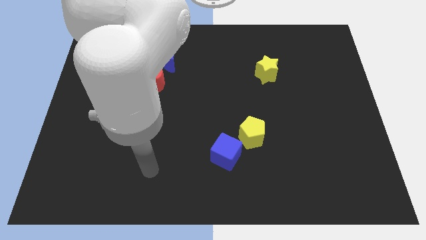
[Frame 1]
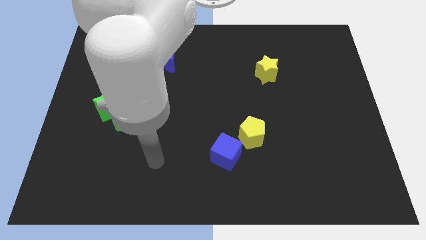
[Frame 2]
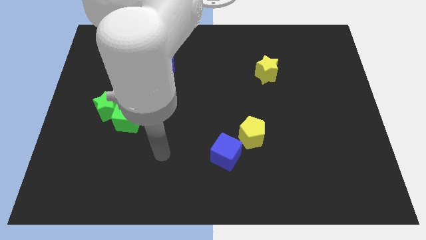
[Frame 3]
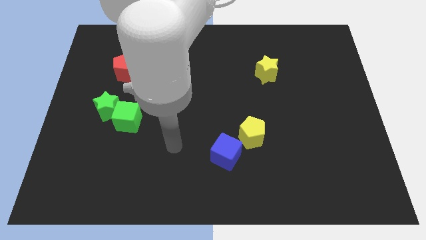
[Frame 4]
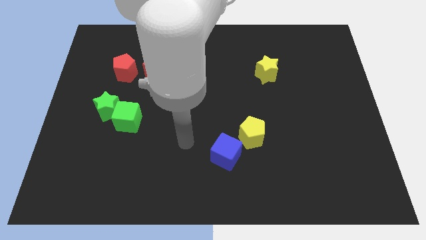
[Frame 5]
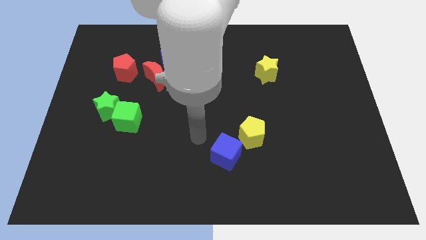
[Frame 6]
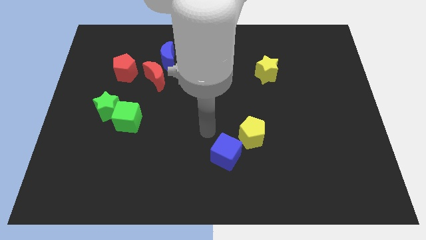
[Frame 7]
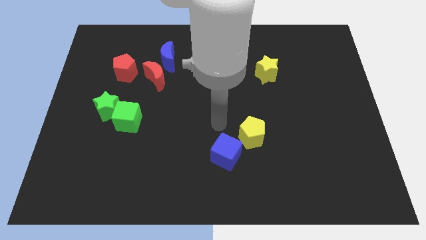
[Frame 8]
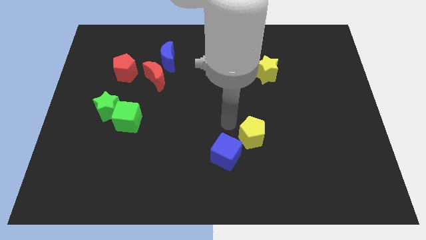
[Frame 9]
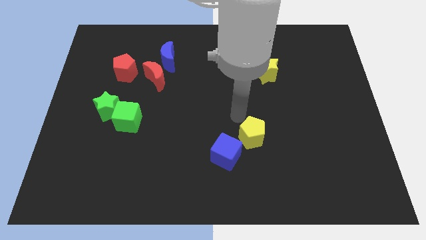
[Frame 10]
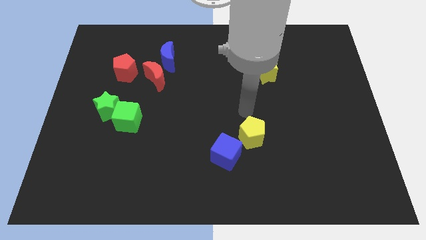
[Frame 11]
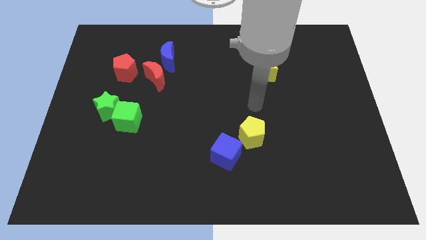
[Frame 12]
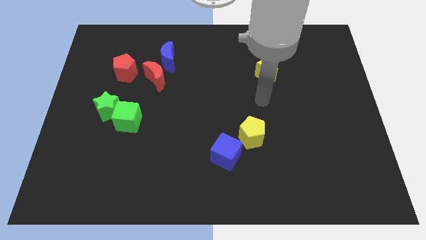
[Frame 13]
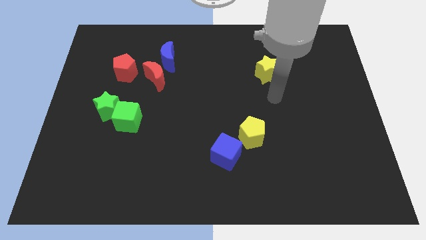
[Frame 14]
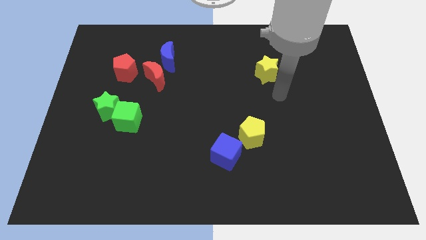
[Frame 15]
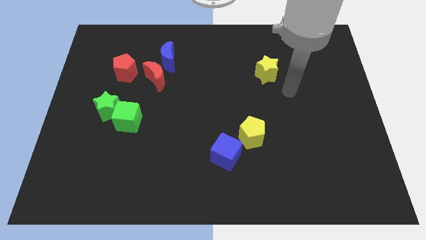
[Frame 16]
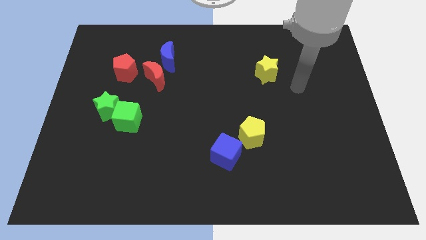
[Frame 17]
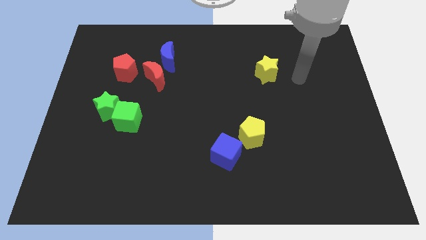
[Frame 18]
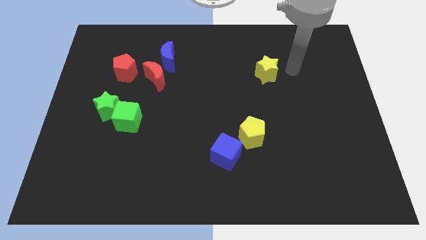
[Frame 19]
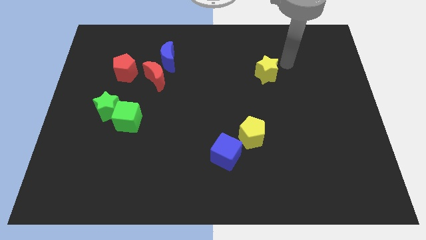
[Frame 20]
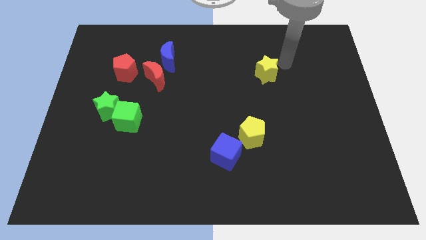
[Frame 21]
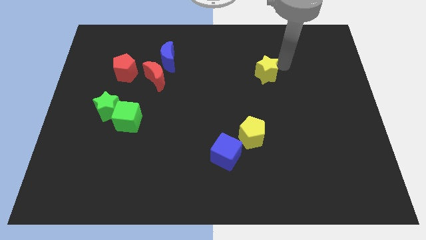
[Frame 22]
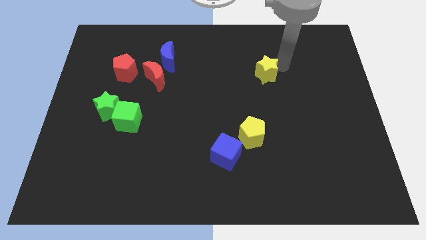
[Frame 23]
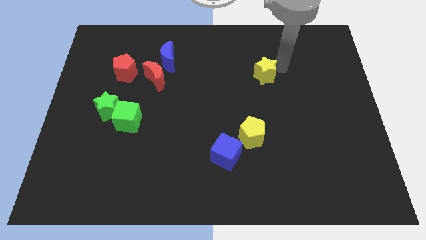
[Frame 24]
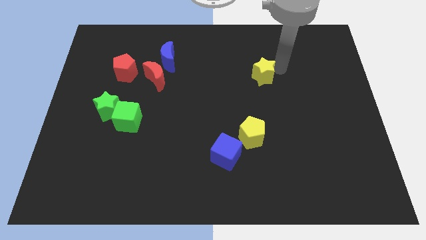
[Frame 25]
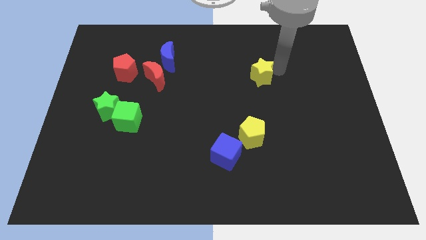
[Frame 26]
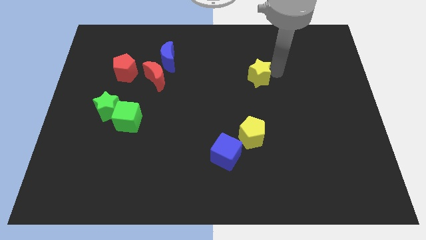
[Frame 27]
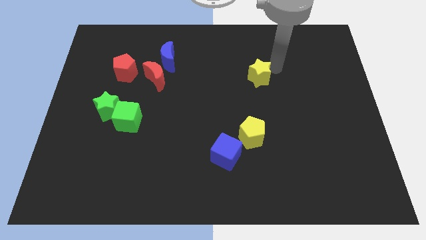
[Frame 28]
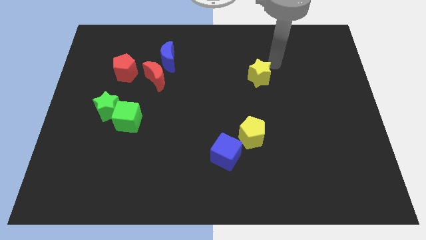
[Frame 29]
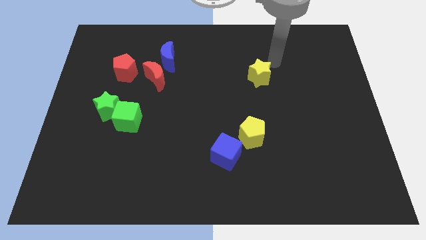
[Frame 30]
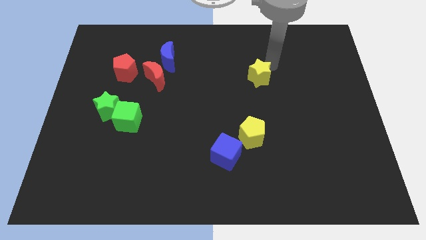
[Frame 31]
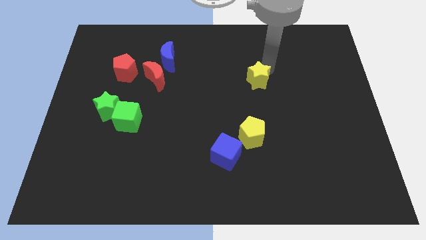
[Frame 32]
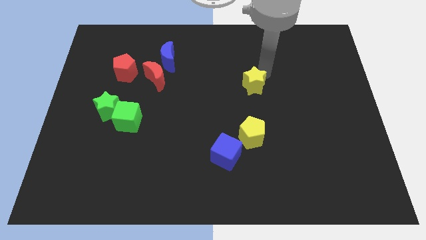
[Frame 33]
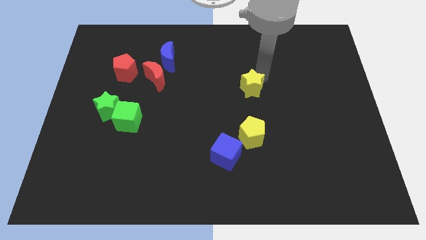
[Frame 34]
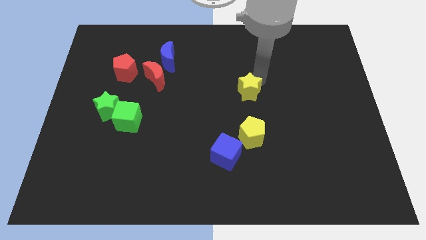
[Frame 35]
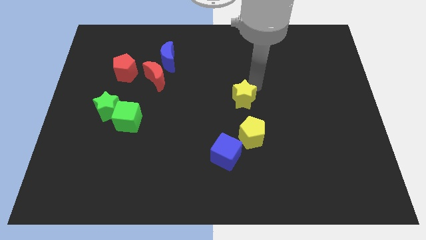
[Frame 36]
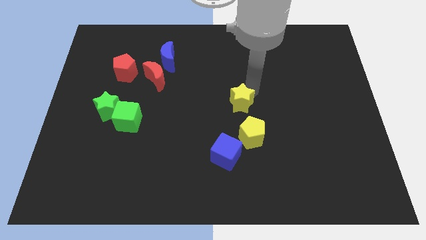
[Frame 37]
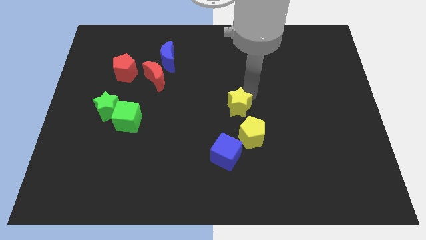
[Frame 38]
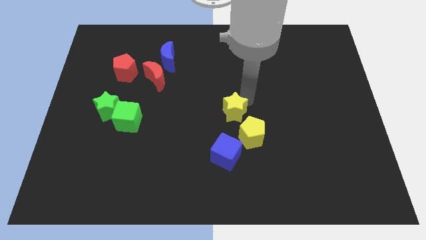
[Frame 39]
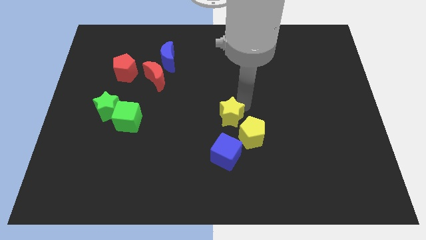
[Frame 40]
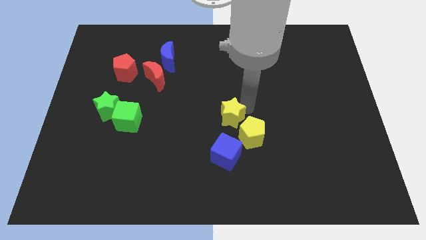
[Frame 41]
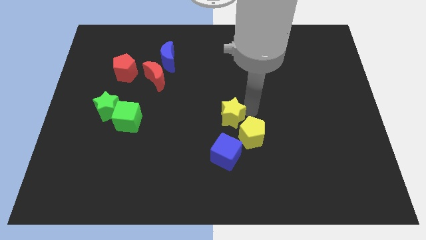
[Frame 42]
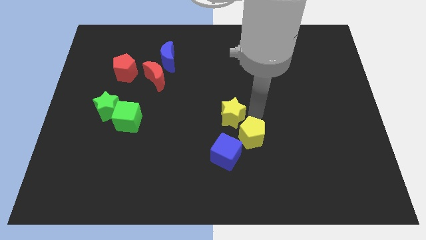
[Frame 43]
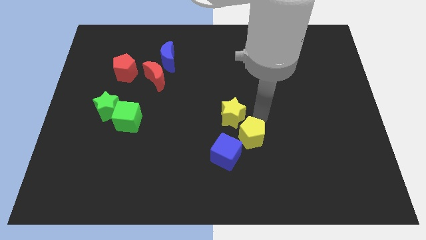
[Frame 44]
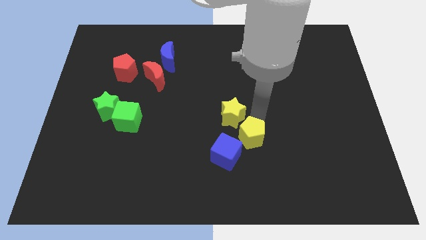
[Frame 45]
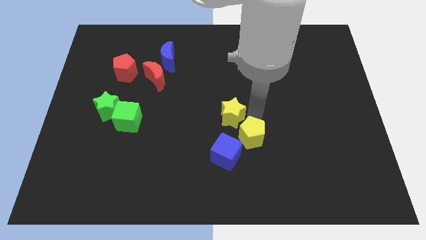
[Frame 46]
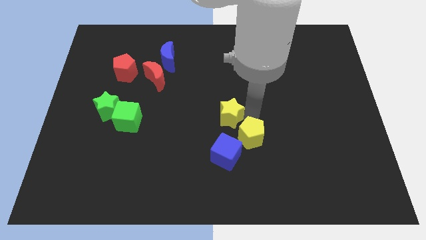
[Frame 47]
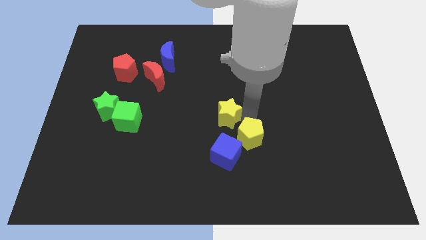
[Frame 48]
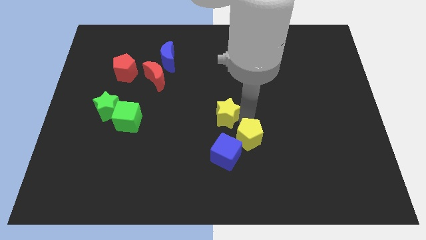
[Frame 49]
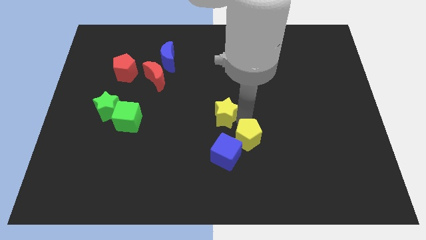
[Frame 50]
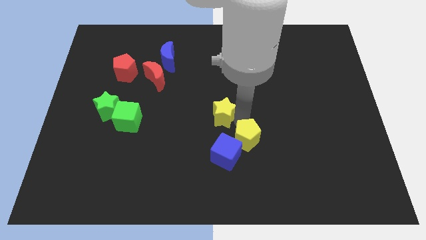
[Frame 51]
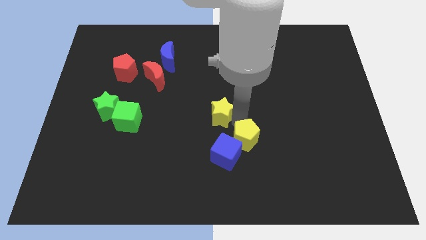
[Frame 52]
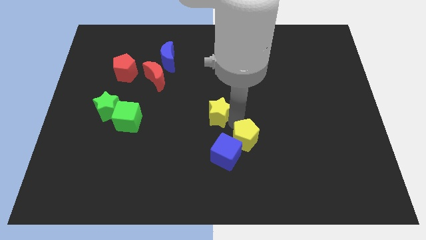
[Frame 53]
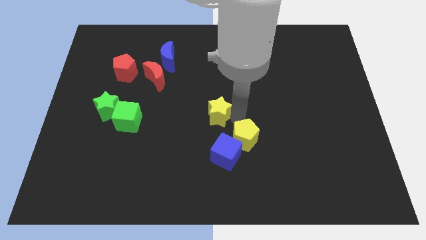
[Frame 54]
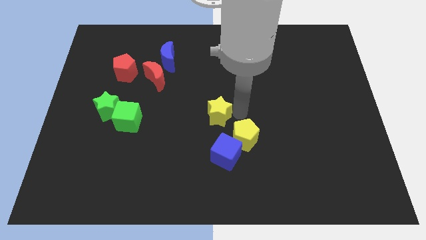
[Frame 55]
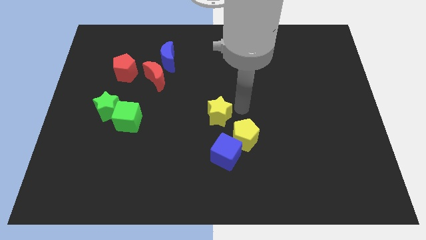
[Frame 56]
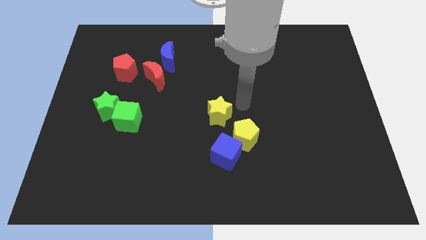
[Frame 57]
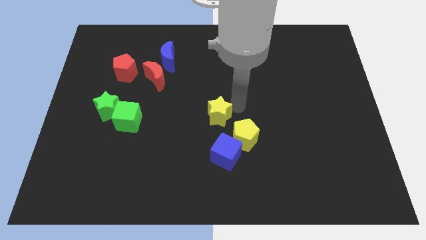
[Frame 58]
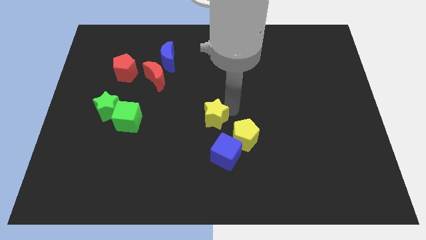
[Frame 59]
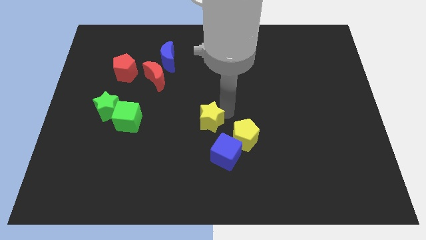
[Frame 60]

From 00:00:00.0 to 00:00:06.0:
move the yellow star diagonally downwards and left

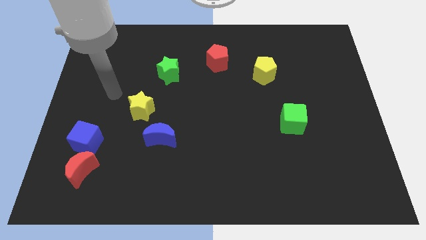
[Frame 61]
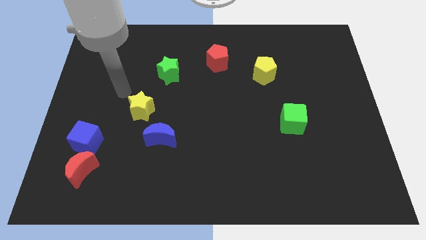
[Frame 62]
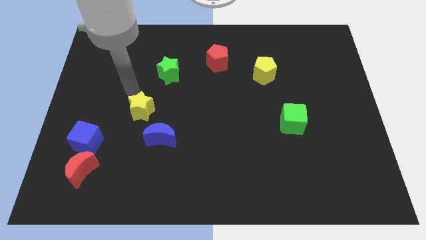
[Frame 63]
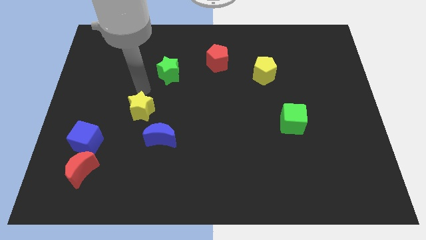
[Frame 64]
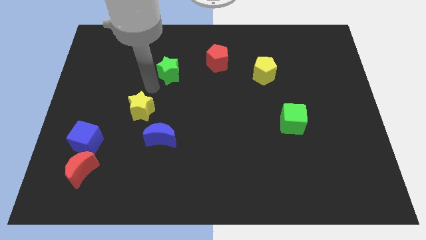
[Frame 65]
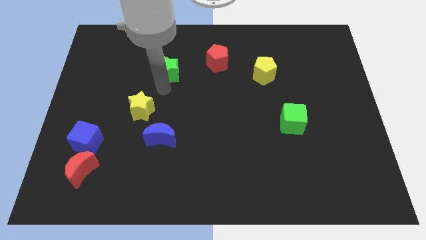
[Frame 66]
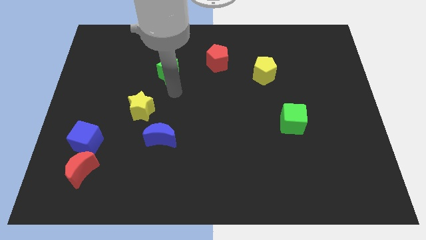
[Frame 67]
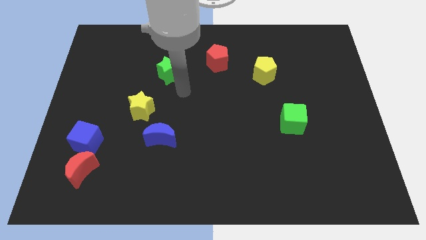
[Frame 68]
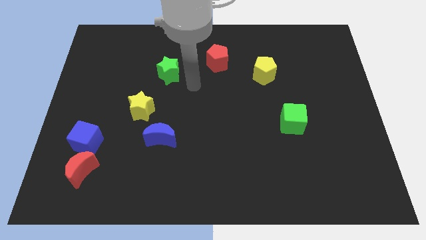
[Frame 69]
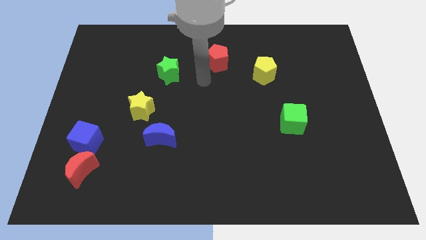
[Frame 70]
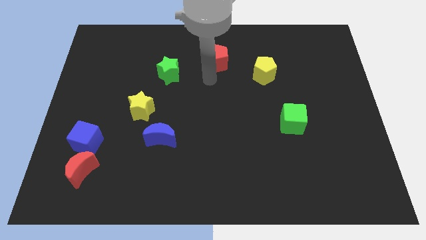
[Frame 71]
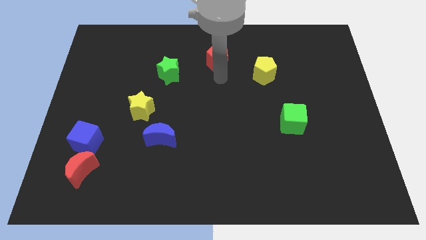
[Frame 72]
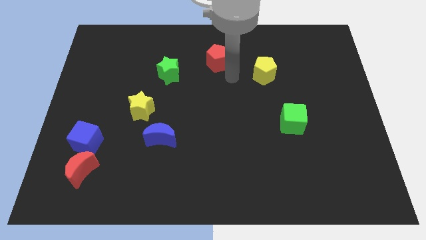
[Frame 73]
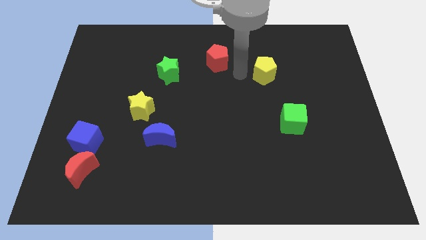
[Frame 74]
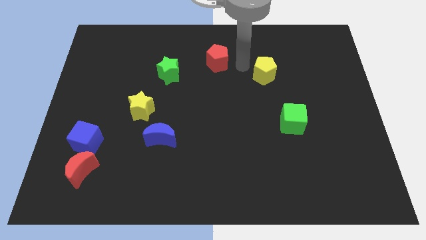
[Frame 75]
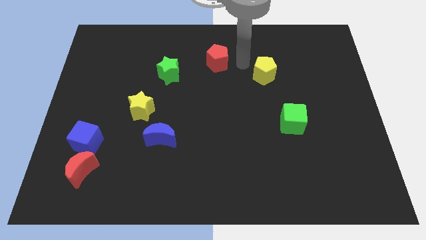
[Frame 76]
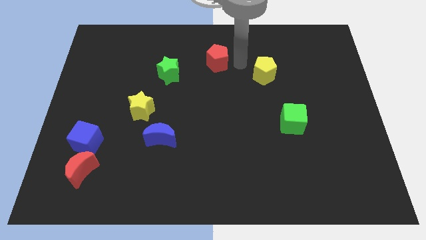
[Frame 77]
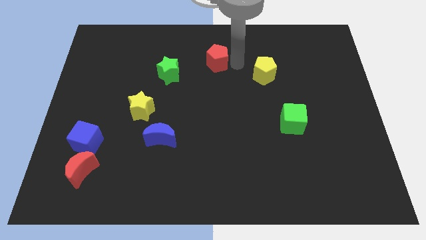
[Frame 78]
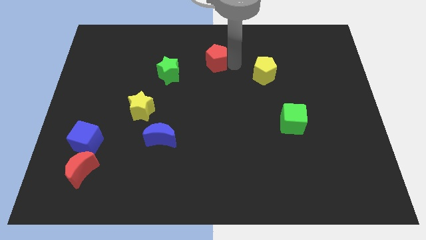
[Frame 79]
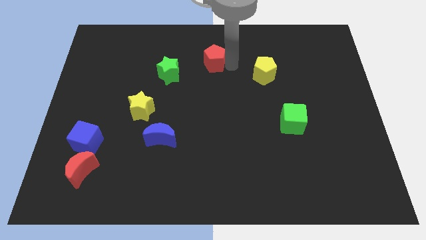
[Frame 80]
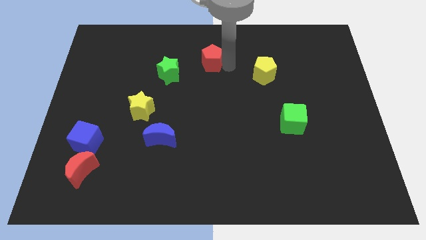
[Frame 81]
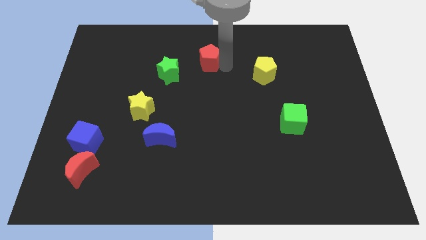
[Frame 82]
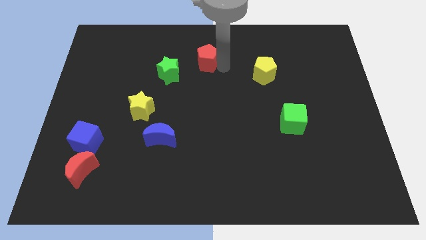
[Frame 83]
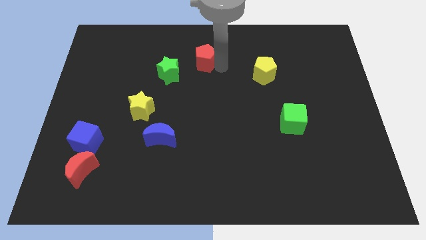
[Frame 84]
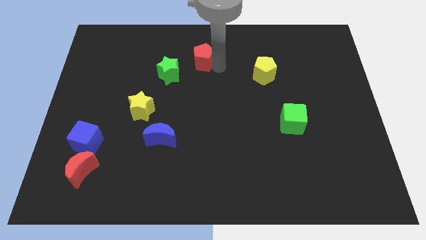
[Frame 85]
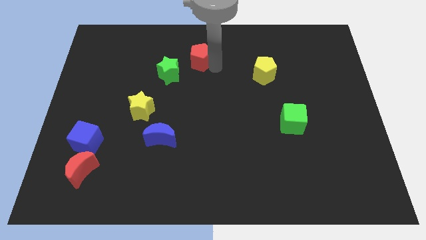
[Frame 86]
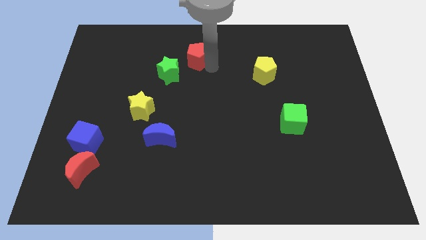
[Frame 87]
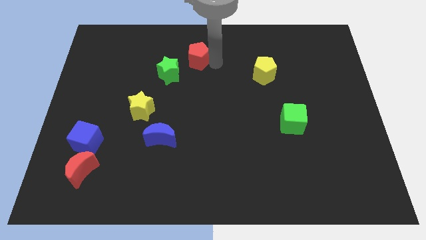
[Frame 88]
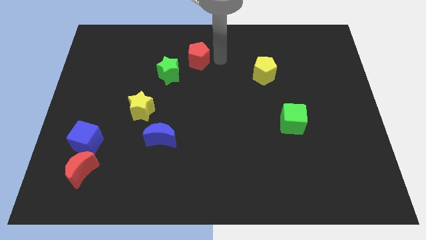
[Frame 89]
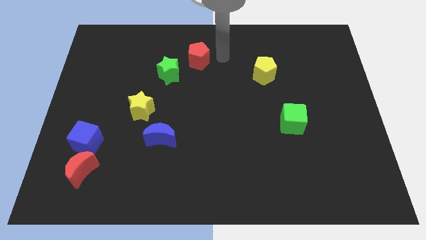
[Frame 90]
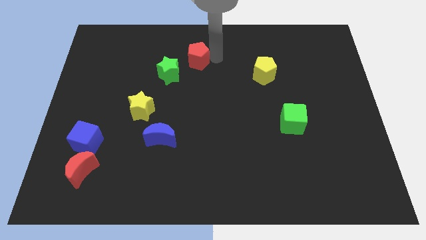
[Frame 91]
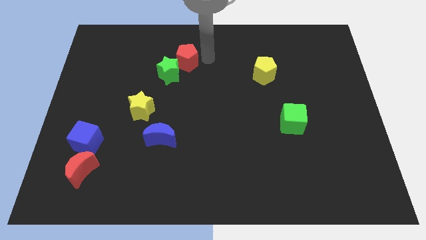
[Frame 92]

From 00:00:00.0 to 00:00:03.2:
push the red pentagon a little bit left
